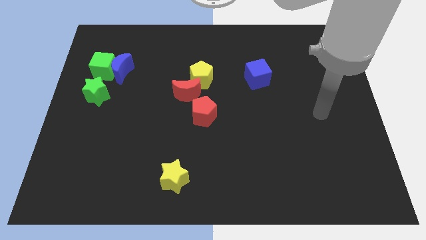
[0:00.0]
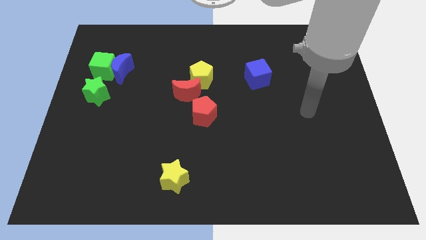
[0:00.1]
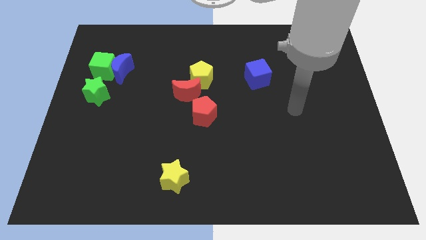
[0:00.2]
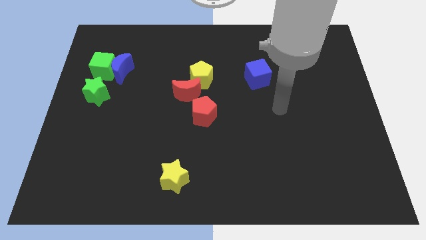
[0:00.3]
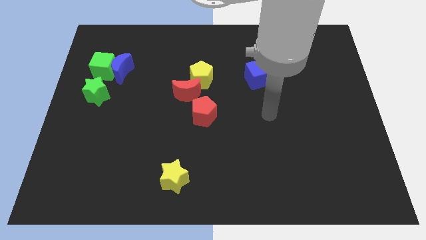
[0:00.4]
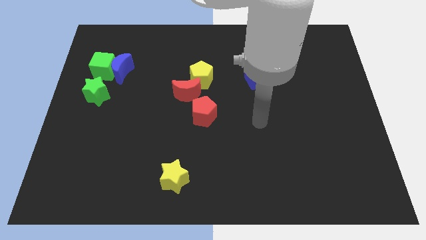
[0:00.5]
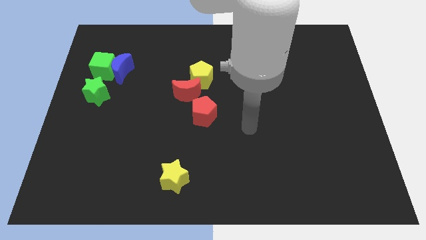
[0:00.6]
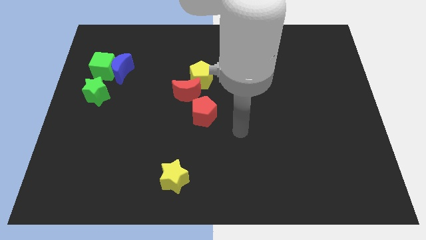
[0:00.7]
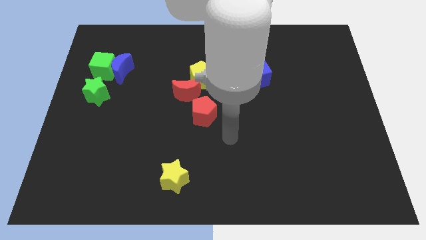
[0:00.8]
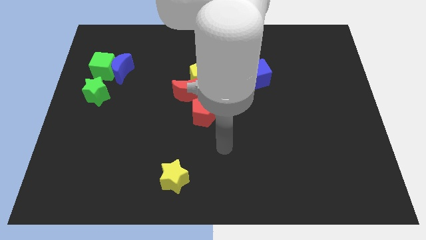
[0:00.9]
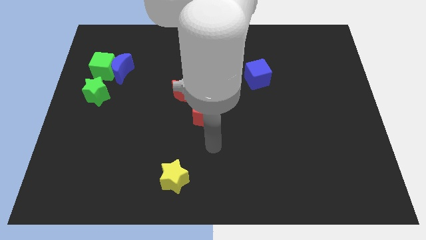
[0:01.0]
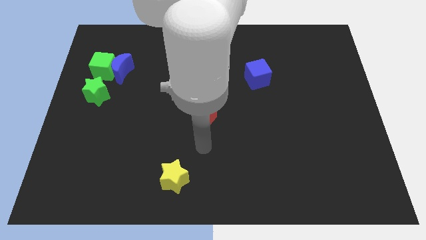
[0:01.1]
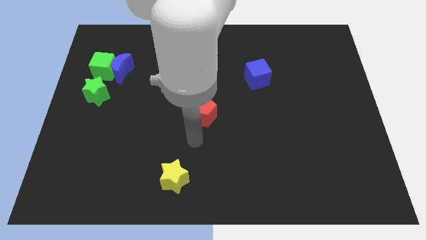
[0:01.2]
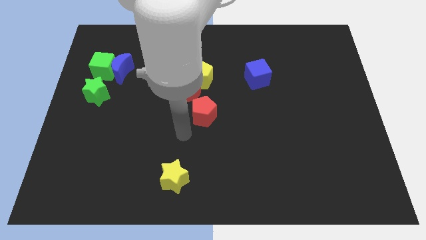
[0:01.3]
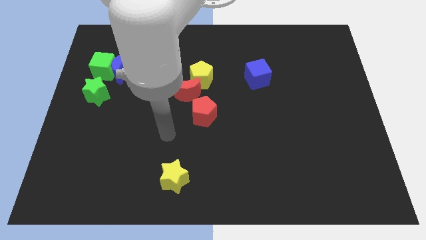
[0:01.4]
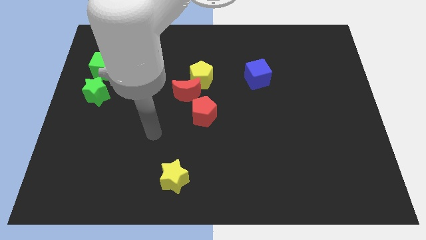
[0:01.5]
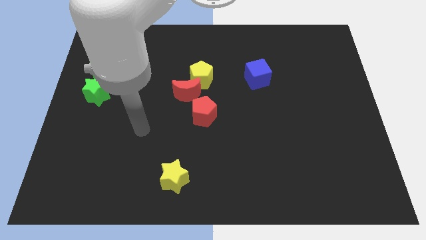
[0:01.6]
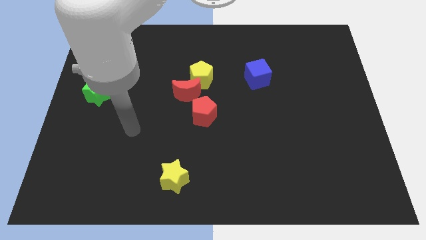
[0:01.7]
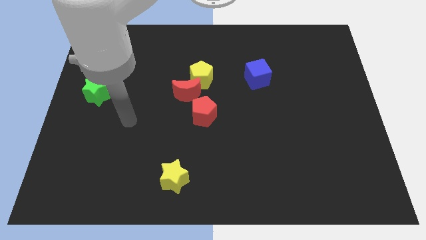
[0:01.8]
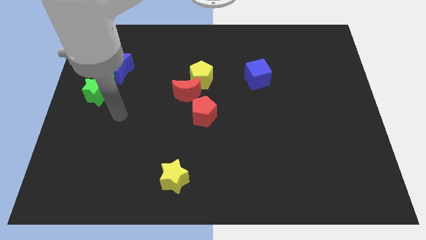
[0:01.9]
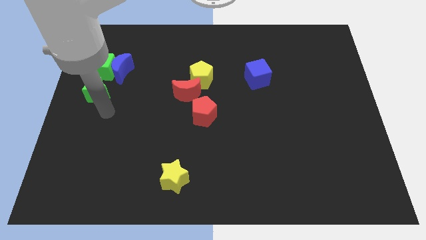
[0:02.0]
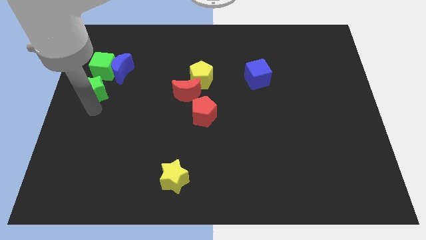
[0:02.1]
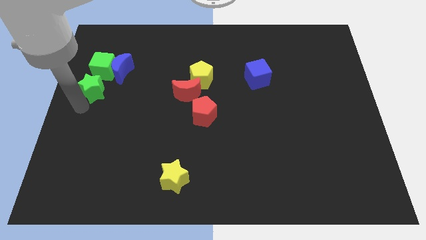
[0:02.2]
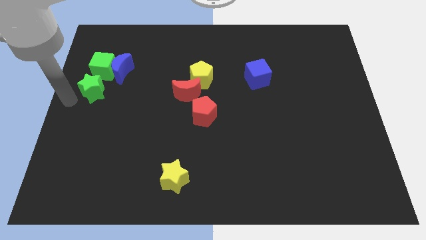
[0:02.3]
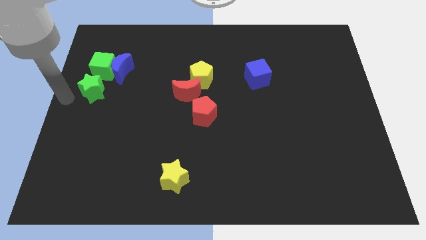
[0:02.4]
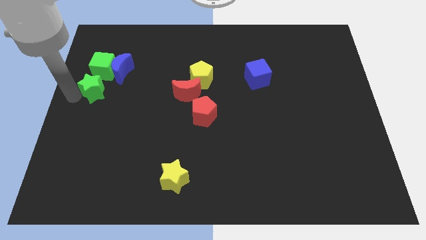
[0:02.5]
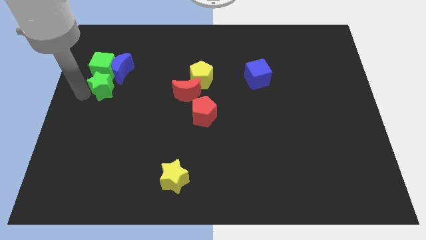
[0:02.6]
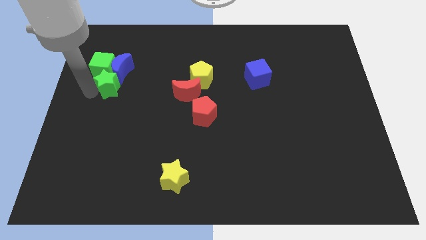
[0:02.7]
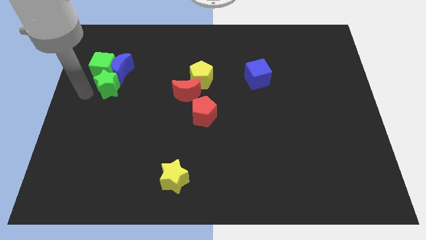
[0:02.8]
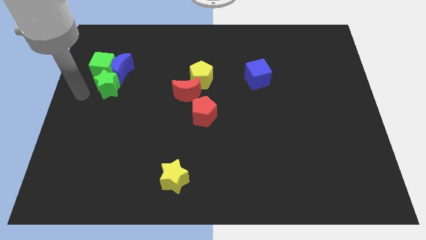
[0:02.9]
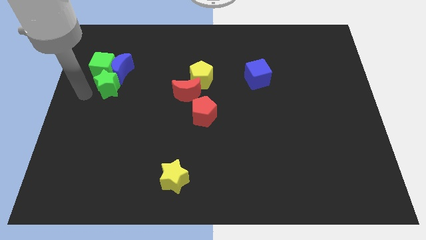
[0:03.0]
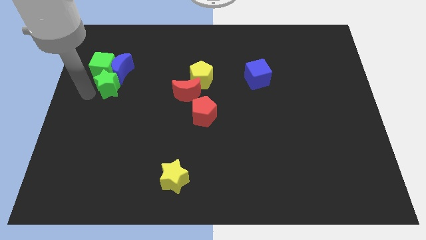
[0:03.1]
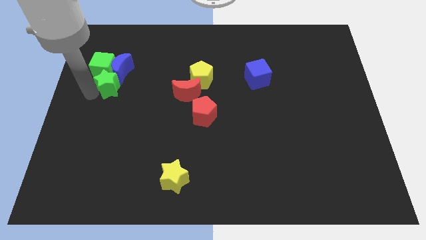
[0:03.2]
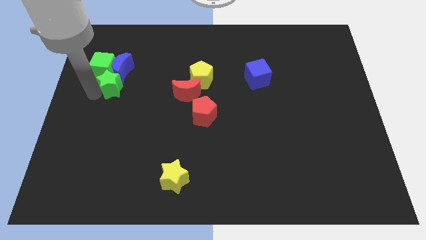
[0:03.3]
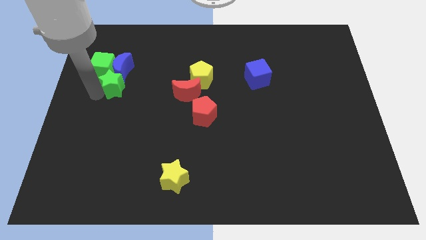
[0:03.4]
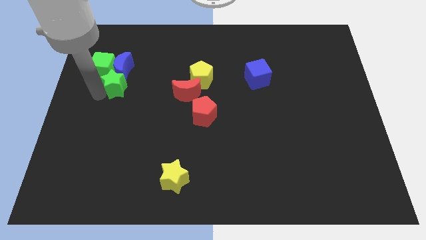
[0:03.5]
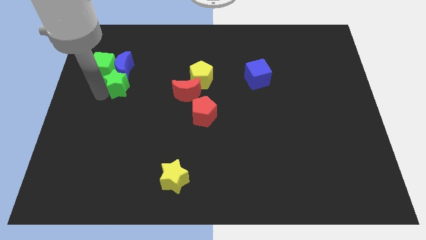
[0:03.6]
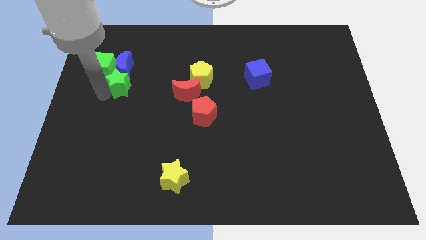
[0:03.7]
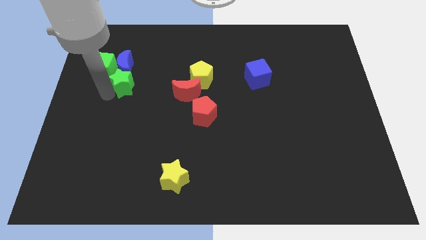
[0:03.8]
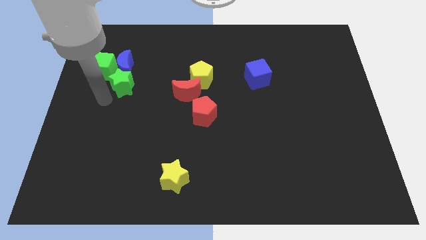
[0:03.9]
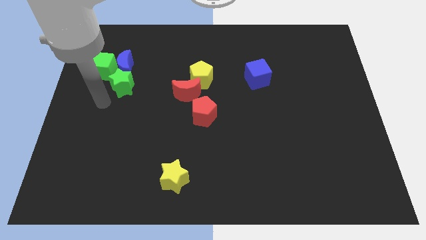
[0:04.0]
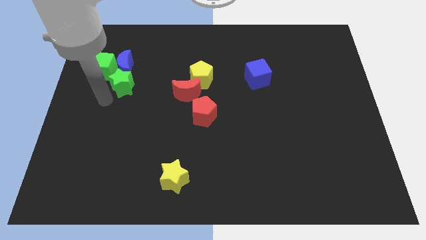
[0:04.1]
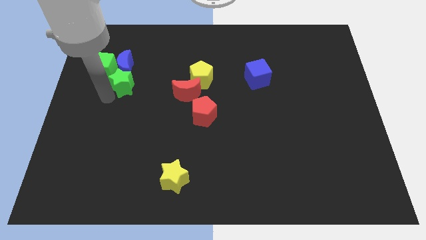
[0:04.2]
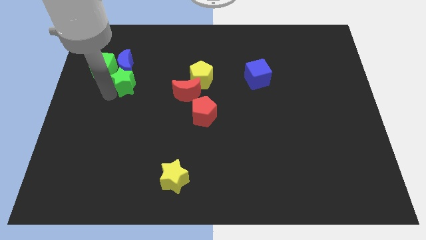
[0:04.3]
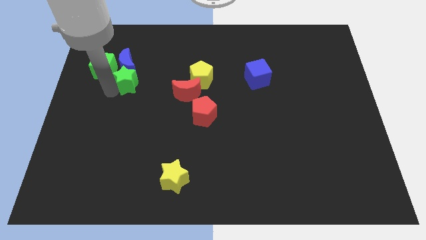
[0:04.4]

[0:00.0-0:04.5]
move the green star slightly upwards and to the right diagonally

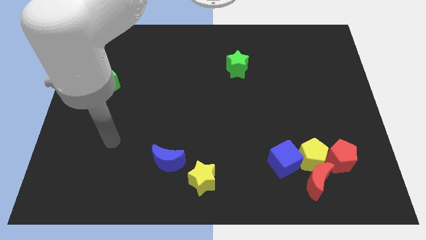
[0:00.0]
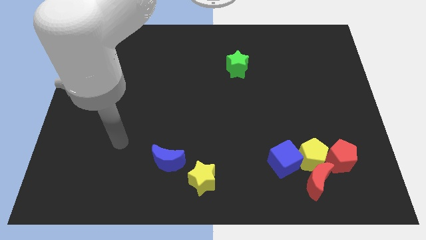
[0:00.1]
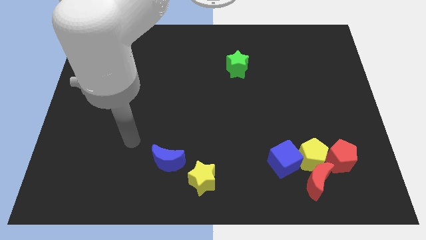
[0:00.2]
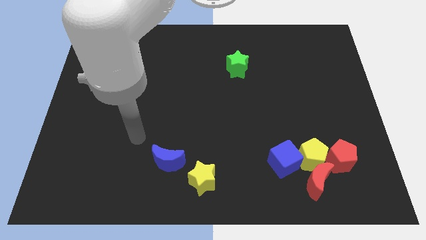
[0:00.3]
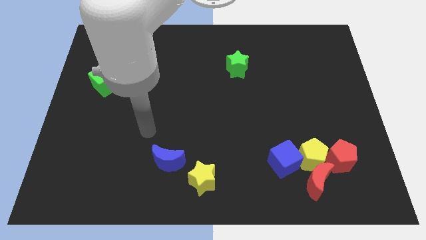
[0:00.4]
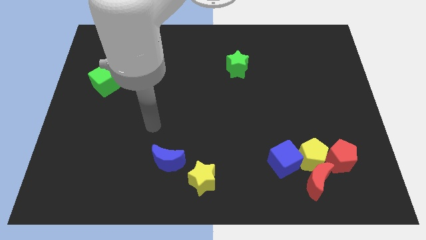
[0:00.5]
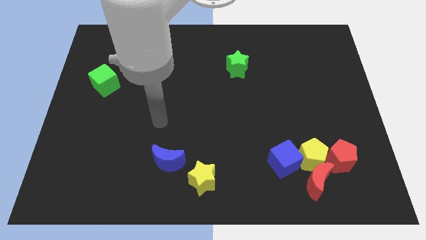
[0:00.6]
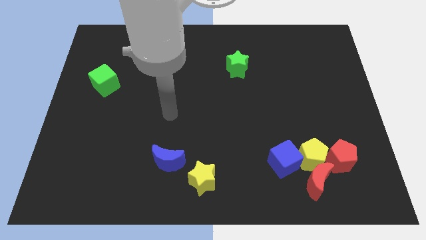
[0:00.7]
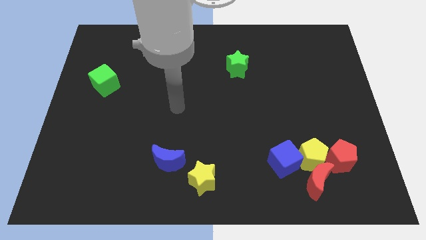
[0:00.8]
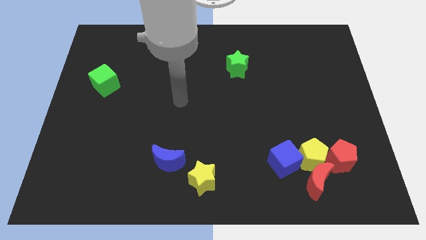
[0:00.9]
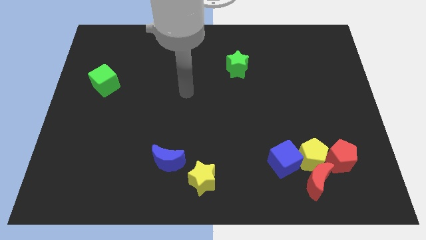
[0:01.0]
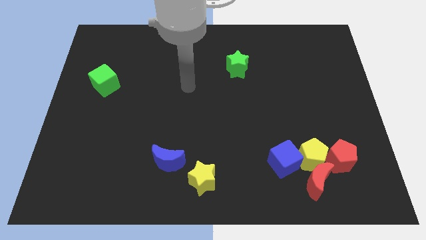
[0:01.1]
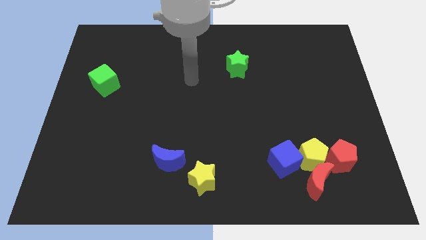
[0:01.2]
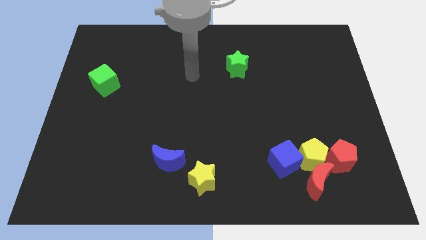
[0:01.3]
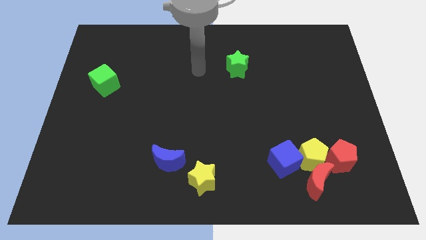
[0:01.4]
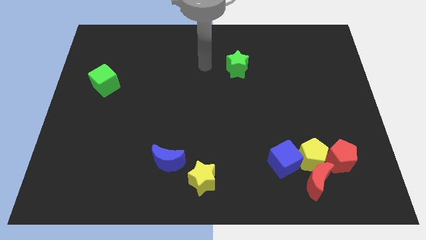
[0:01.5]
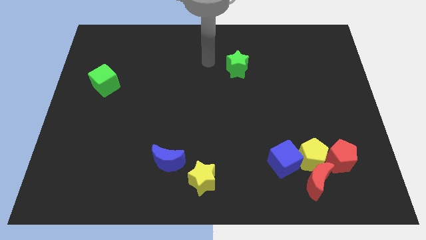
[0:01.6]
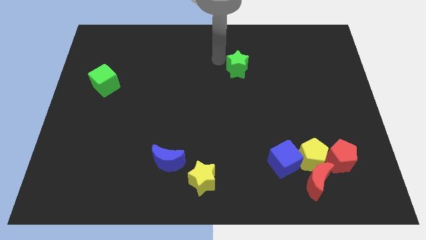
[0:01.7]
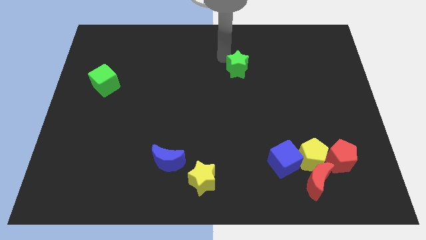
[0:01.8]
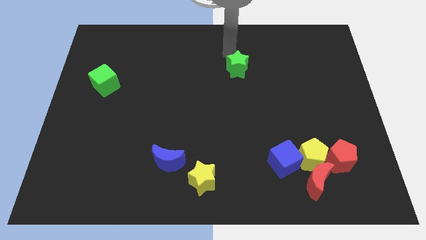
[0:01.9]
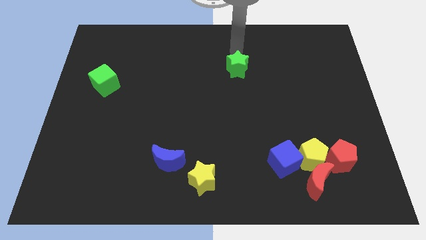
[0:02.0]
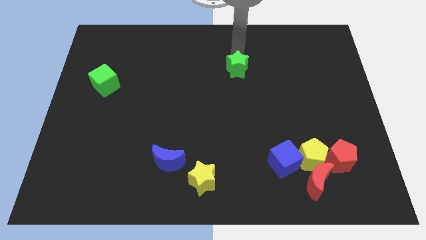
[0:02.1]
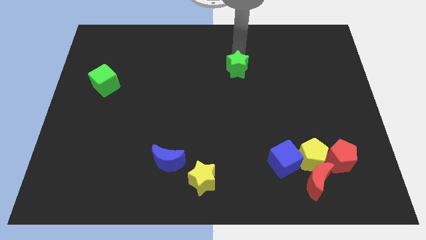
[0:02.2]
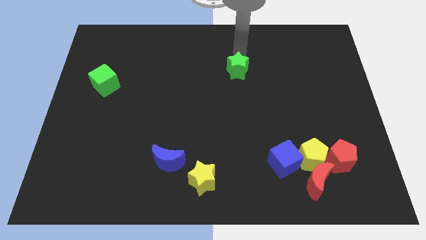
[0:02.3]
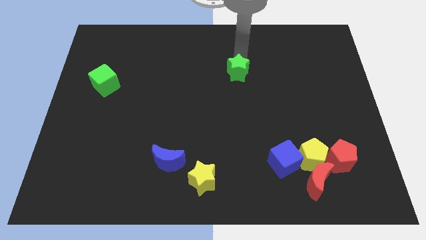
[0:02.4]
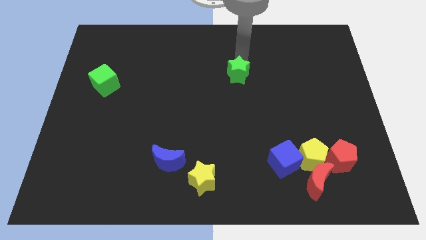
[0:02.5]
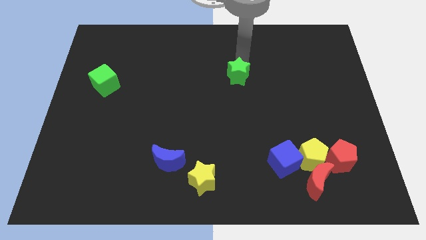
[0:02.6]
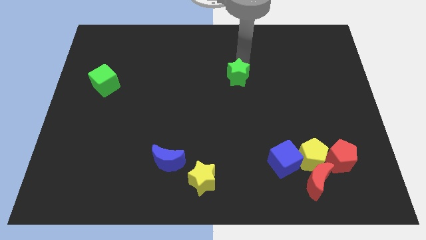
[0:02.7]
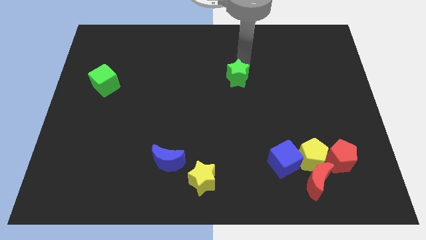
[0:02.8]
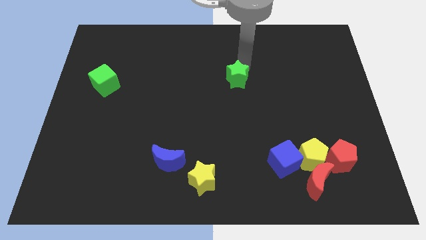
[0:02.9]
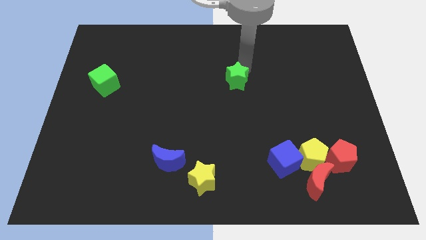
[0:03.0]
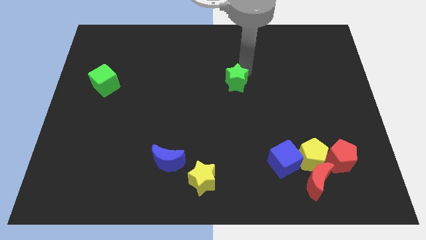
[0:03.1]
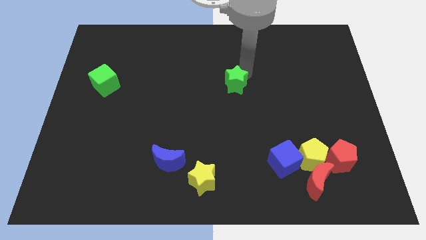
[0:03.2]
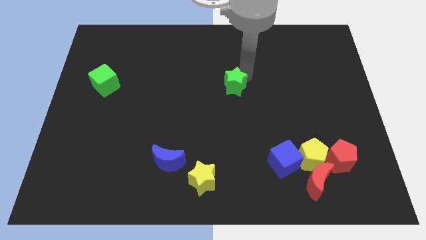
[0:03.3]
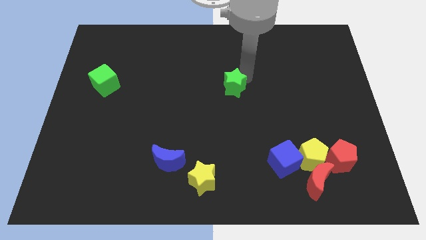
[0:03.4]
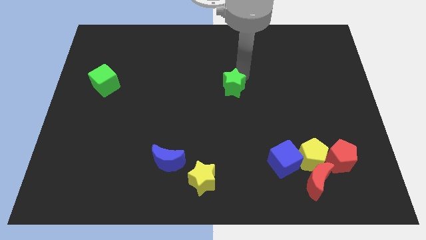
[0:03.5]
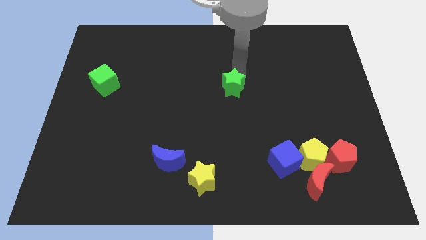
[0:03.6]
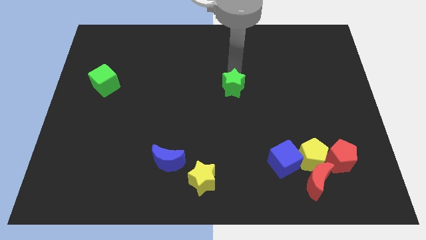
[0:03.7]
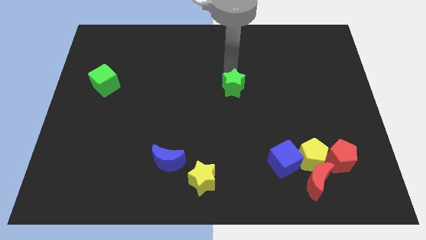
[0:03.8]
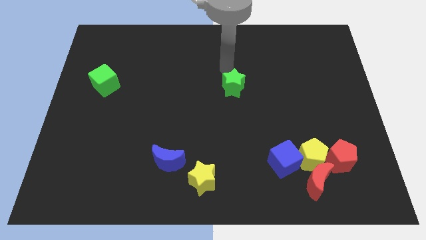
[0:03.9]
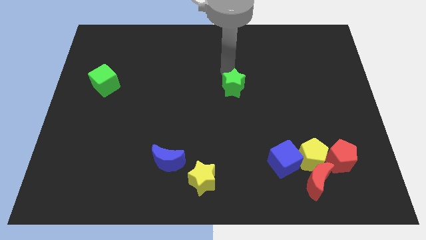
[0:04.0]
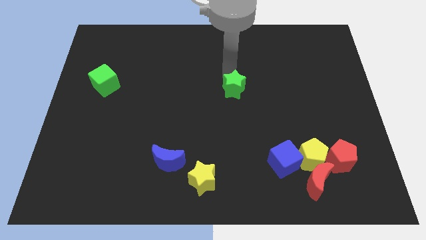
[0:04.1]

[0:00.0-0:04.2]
move the green star a bit down
